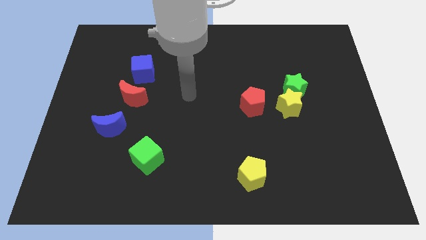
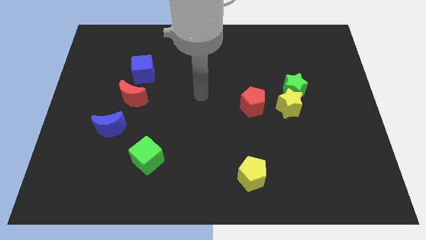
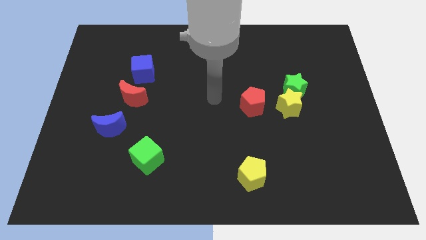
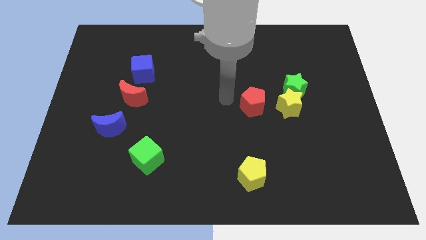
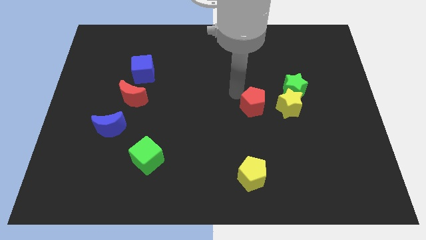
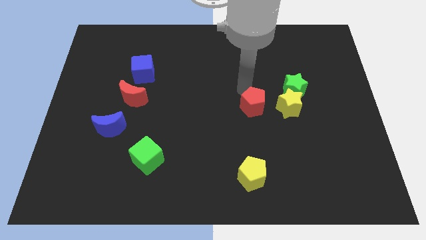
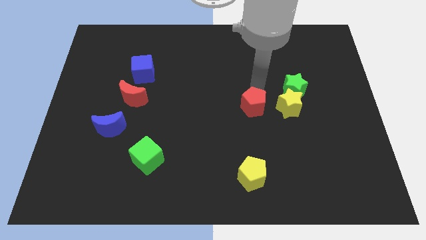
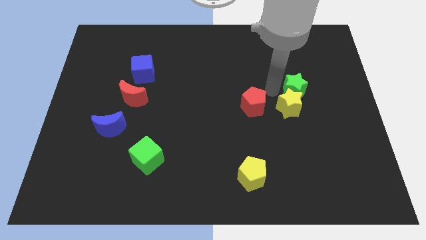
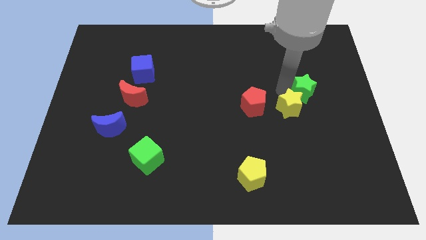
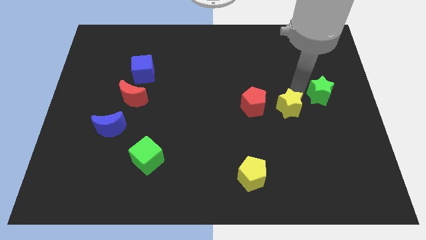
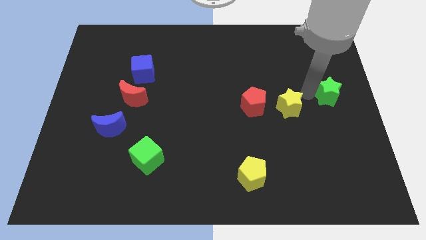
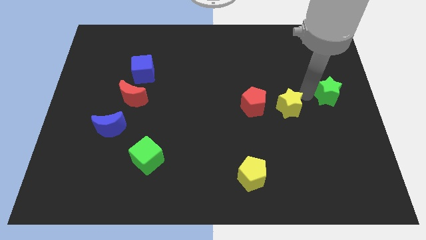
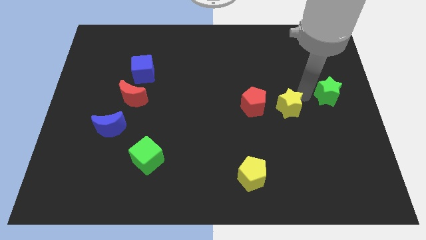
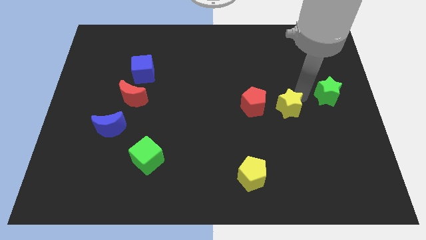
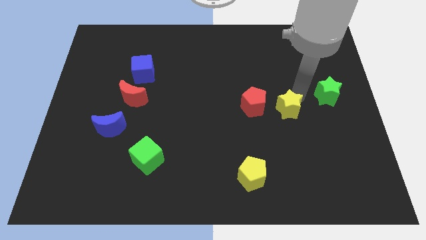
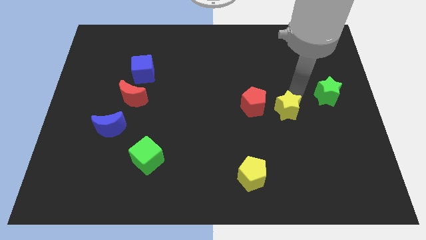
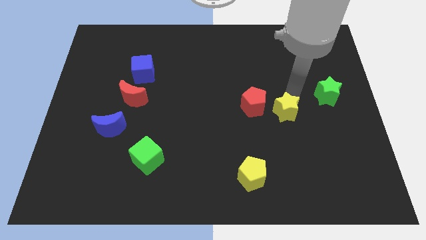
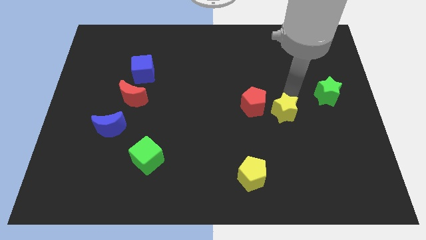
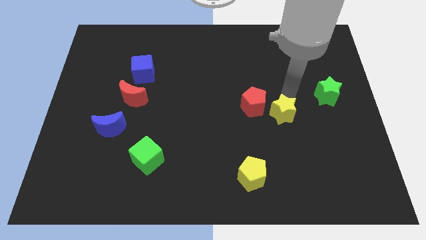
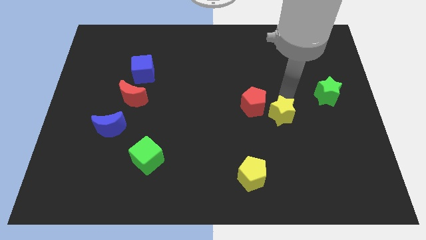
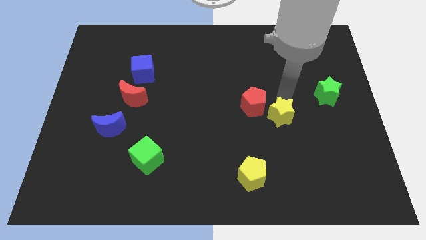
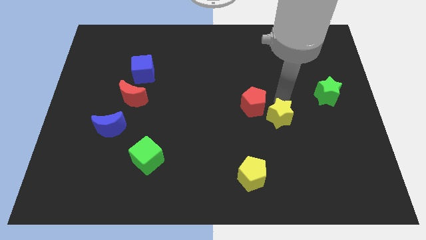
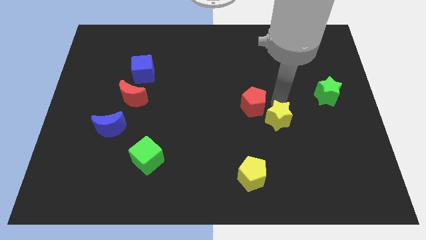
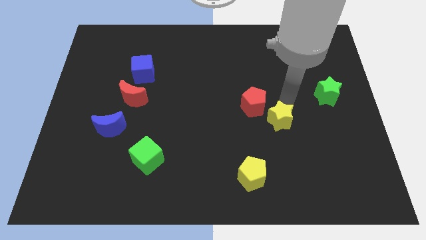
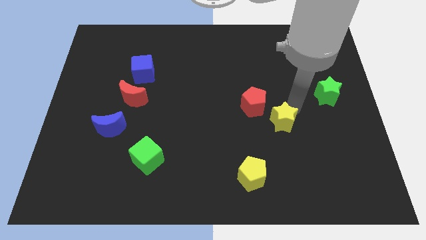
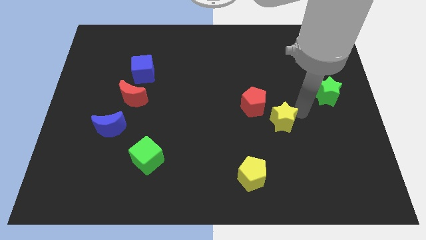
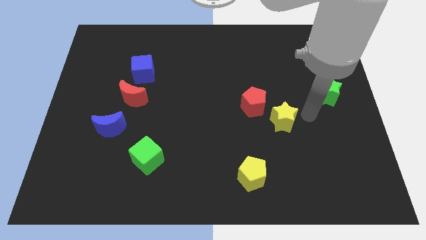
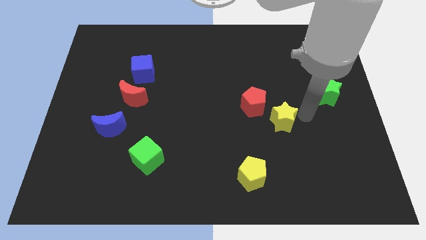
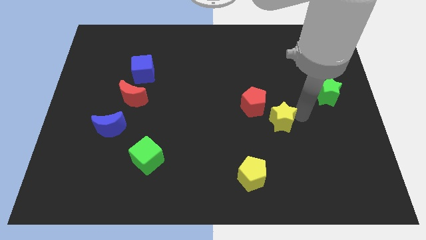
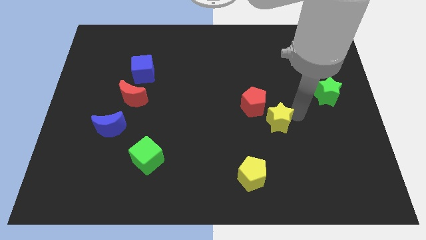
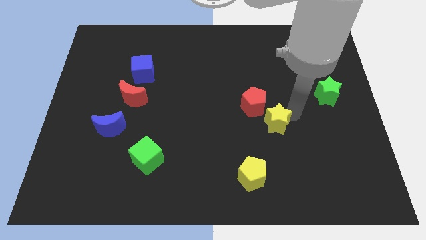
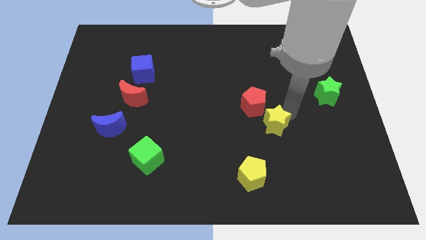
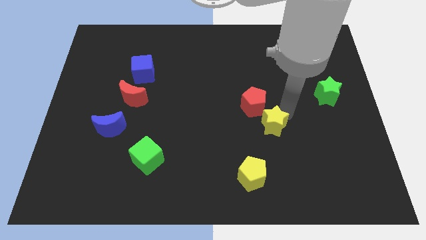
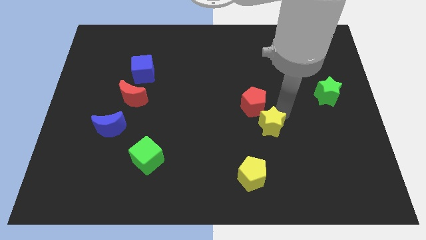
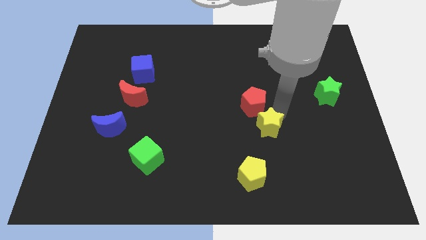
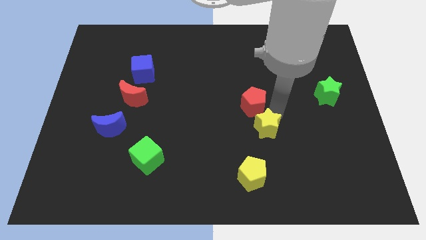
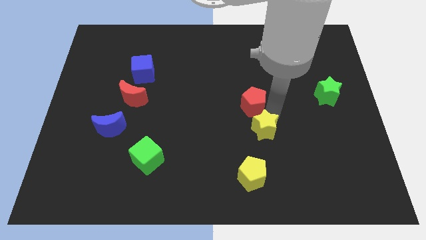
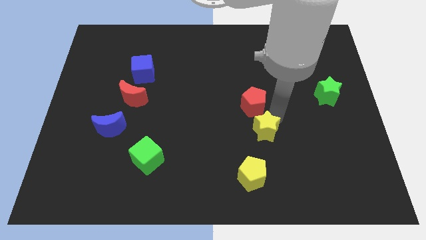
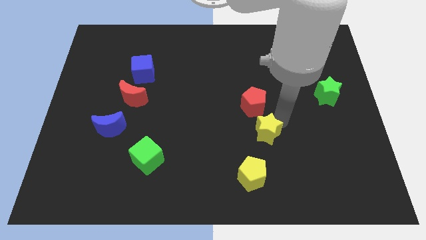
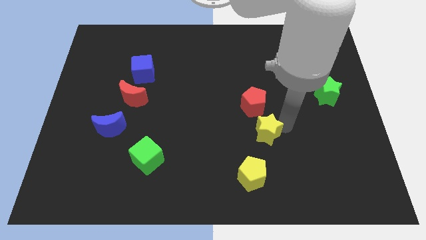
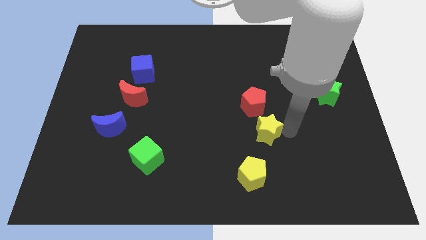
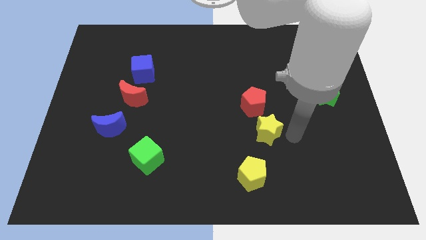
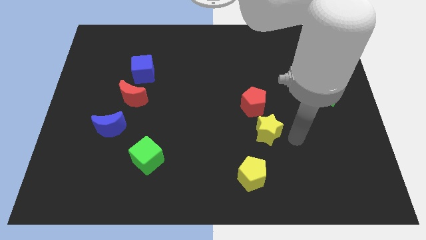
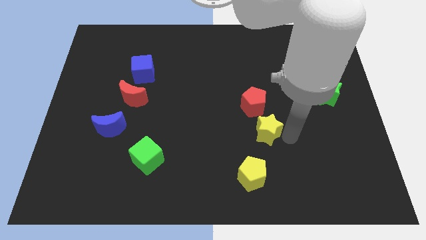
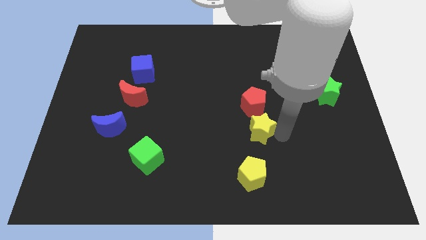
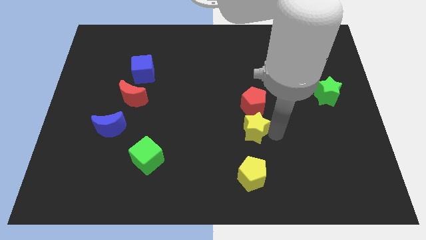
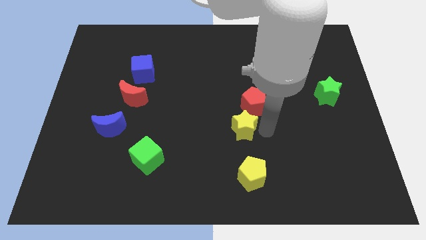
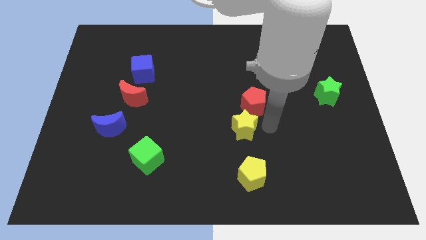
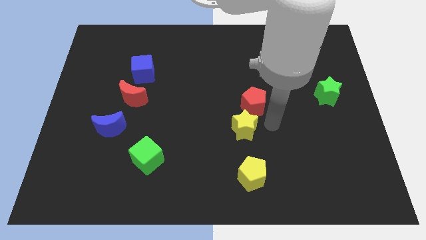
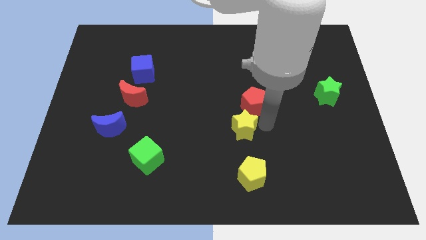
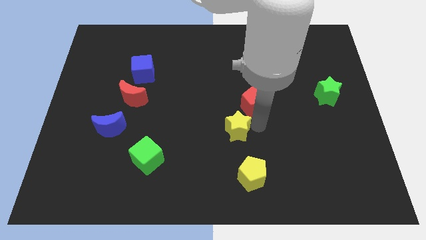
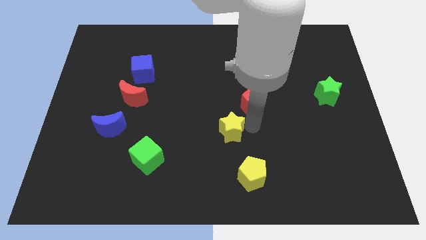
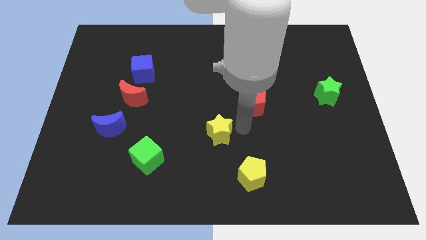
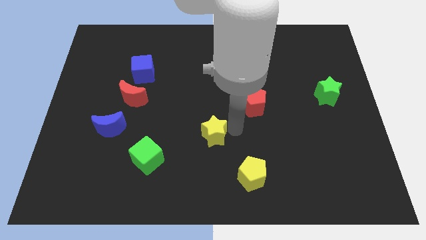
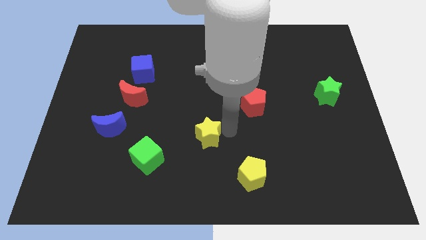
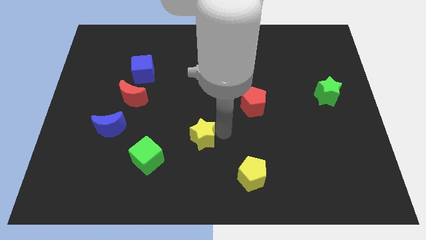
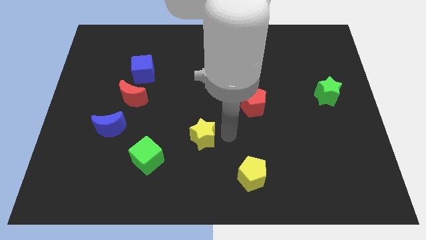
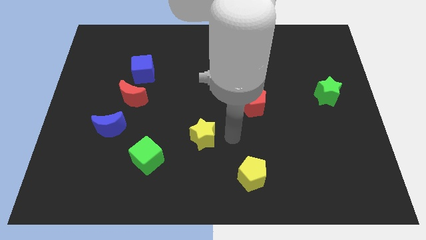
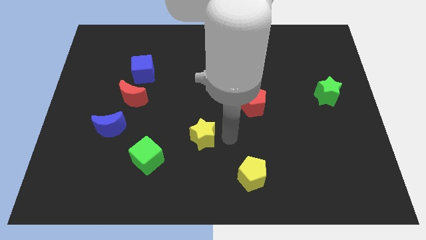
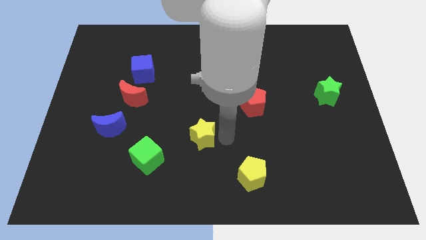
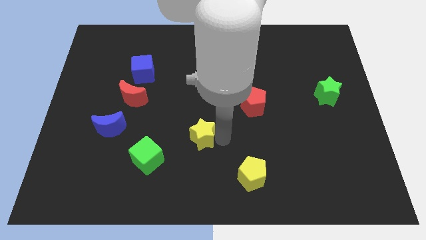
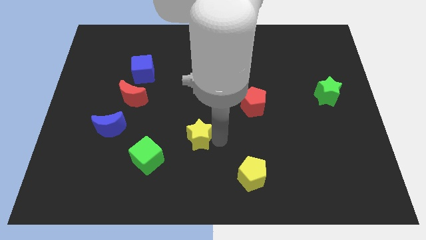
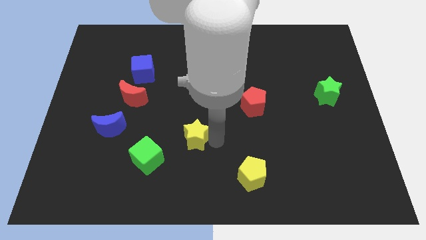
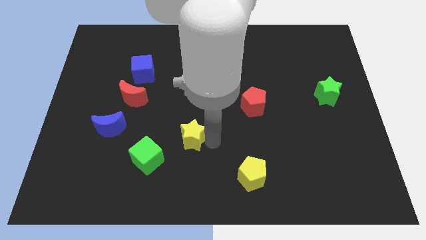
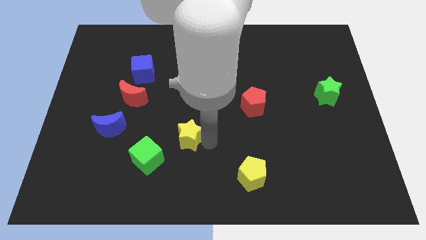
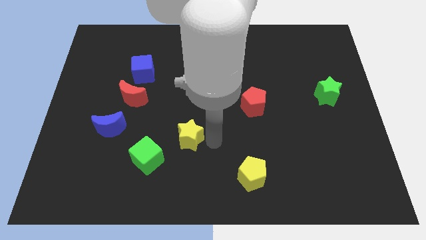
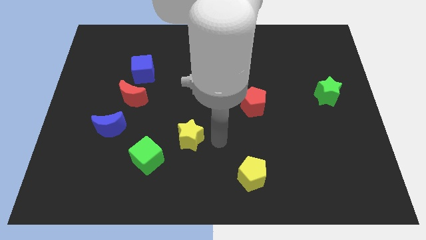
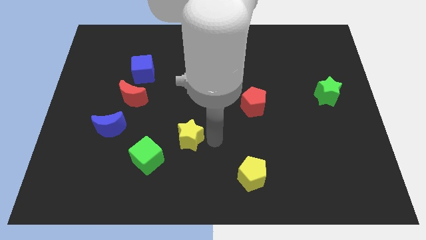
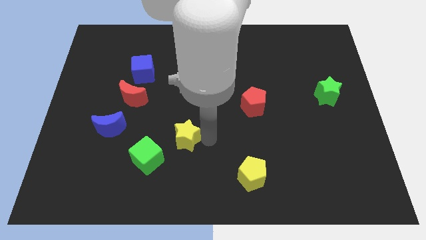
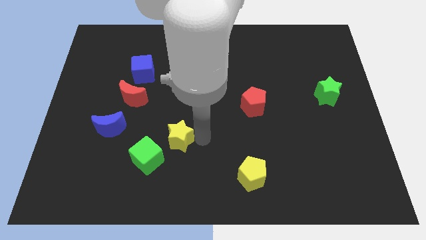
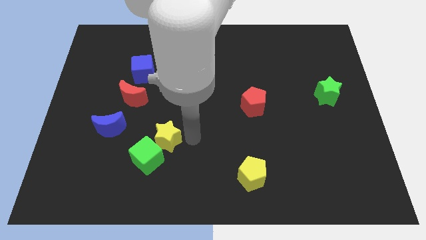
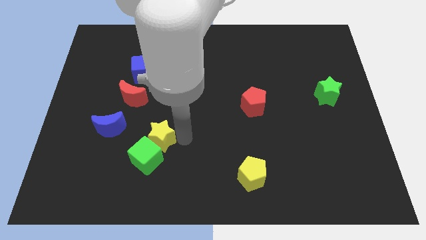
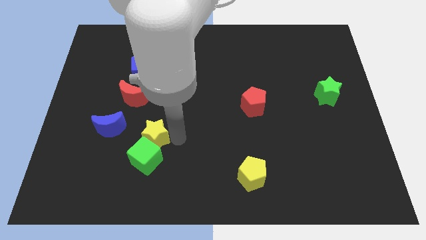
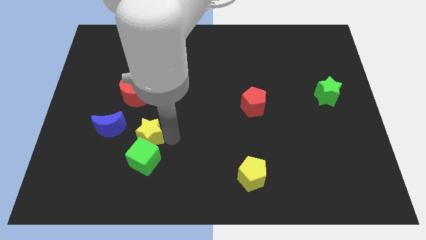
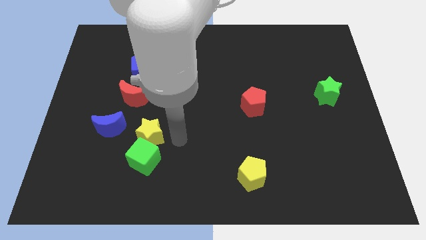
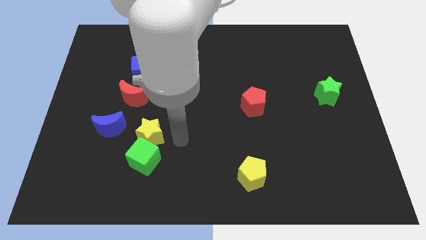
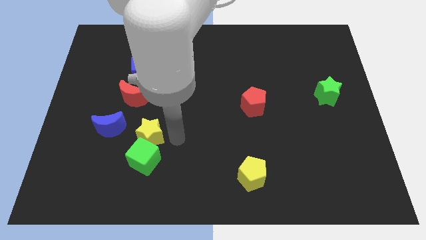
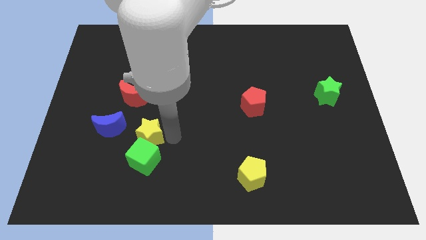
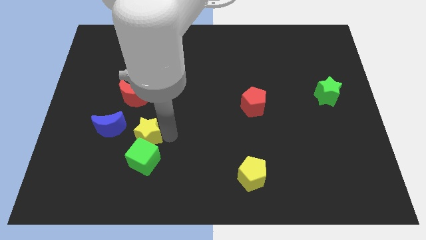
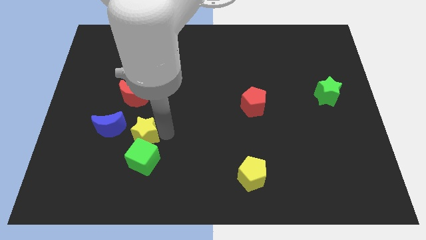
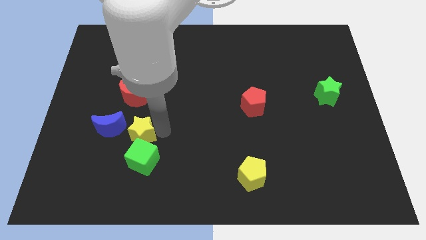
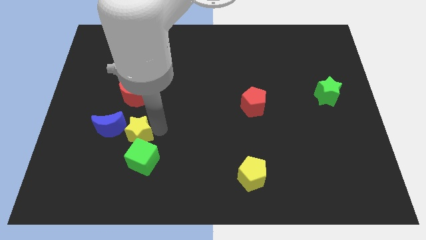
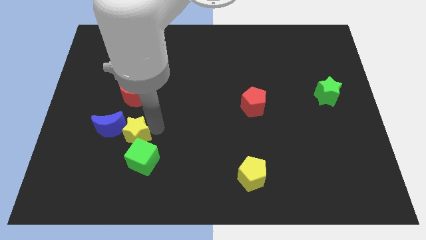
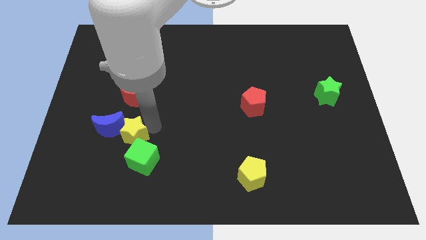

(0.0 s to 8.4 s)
push the yellow star close to the blue moon
